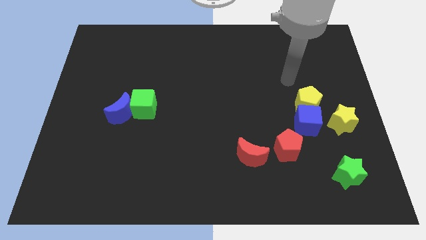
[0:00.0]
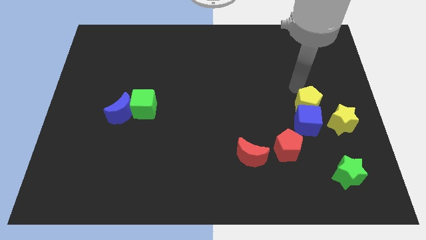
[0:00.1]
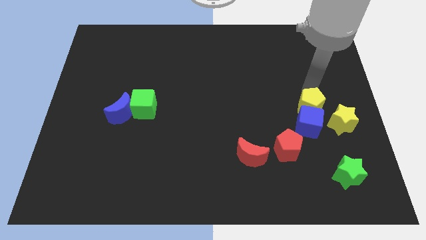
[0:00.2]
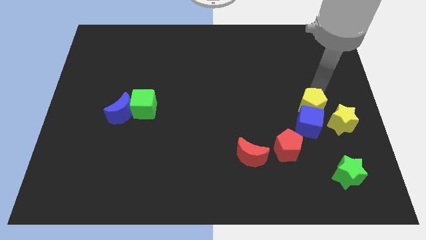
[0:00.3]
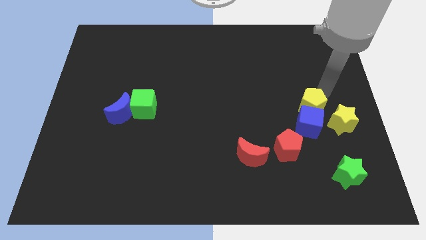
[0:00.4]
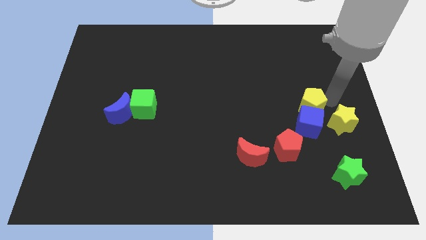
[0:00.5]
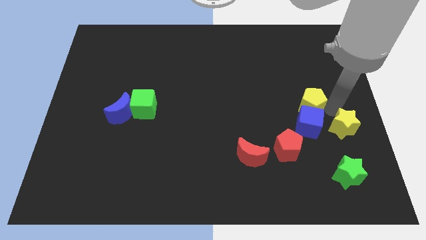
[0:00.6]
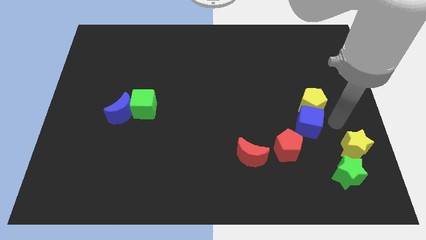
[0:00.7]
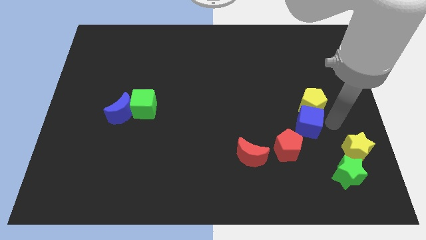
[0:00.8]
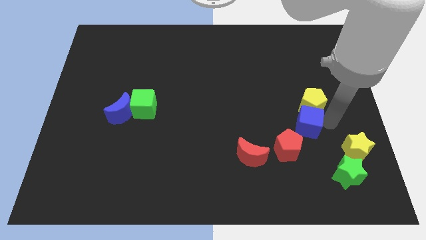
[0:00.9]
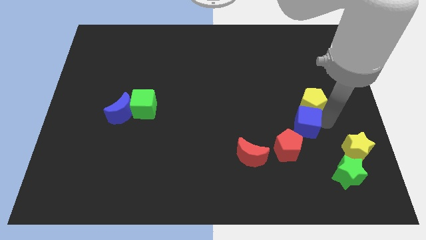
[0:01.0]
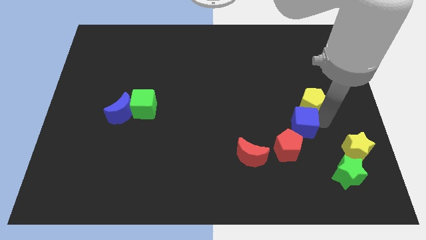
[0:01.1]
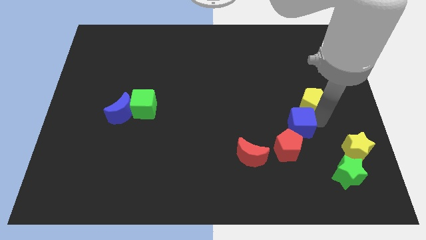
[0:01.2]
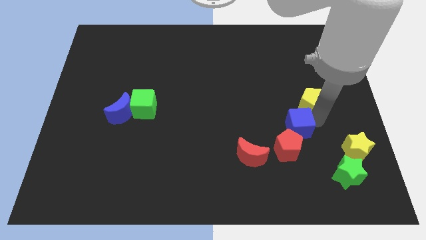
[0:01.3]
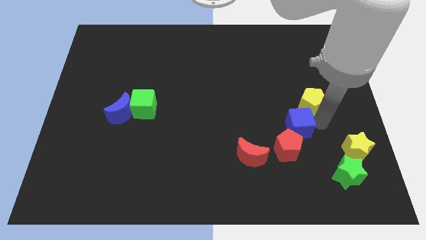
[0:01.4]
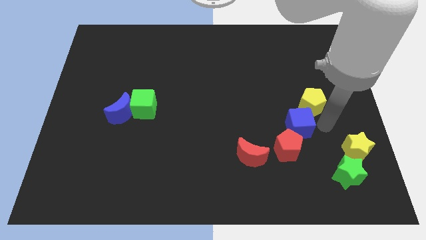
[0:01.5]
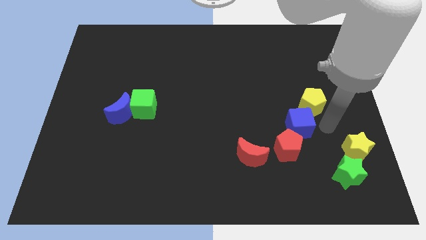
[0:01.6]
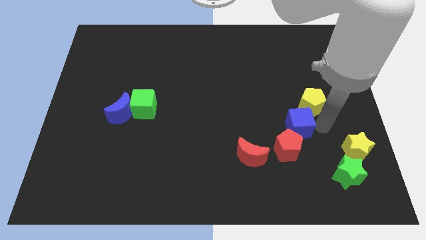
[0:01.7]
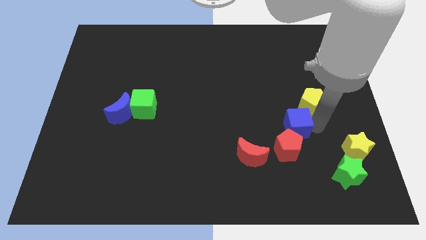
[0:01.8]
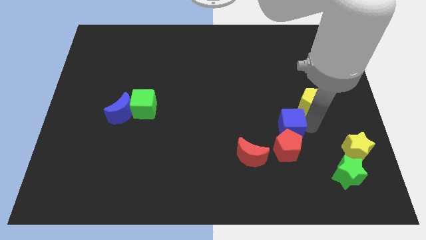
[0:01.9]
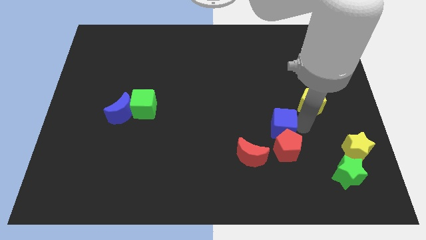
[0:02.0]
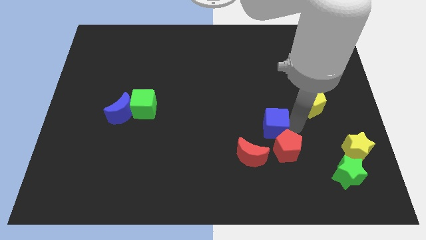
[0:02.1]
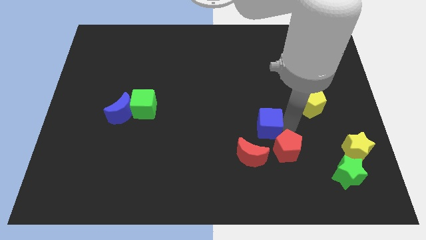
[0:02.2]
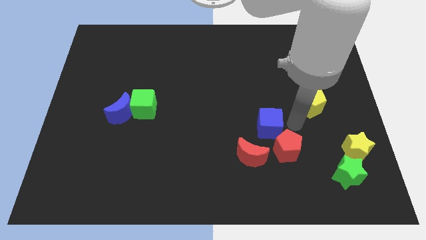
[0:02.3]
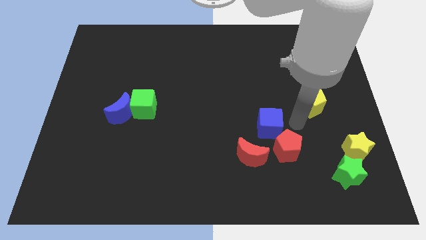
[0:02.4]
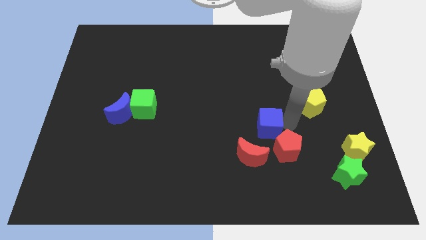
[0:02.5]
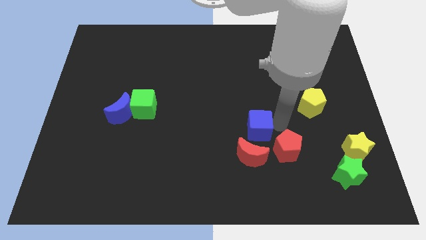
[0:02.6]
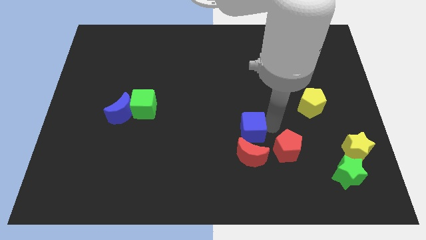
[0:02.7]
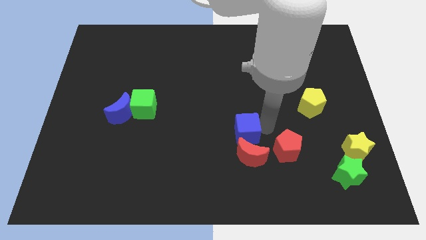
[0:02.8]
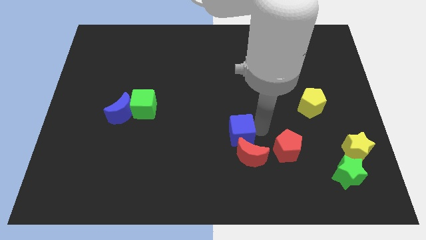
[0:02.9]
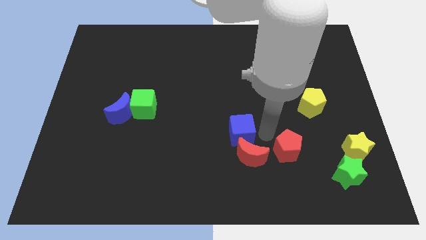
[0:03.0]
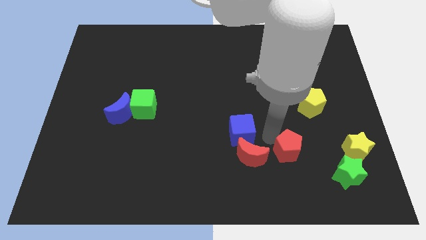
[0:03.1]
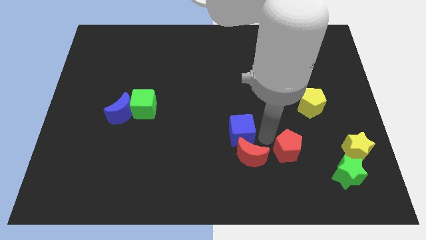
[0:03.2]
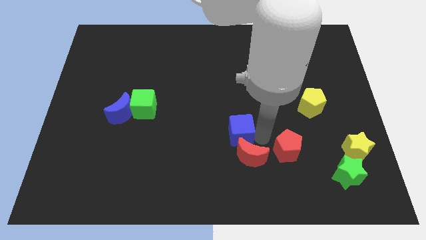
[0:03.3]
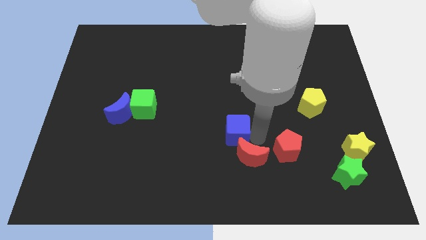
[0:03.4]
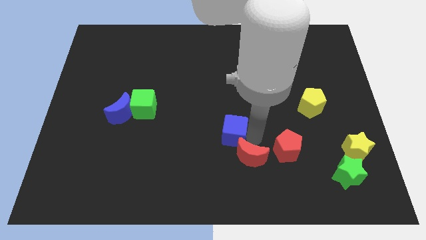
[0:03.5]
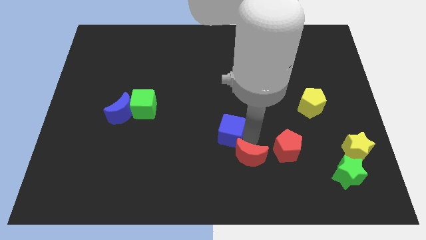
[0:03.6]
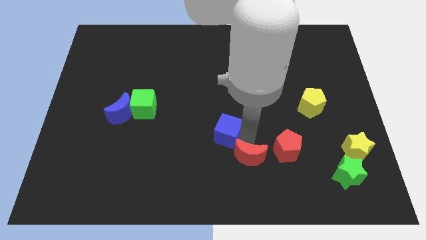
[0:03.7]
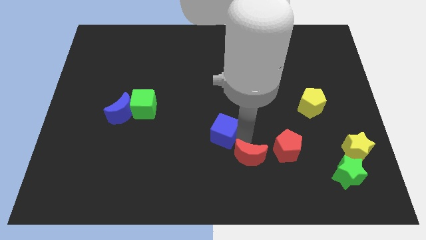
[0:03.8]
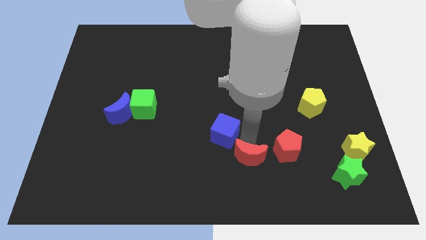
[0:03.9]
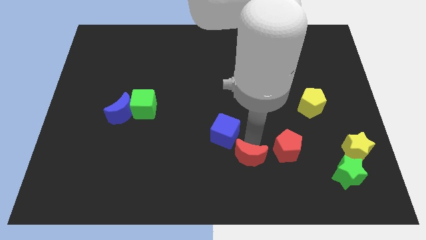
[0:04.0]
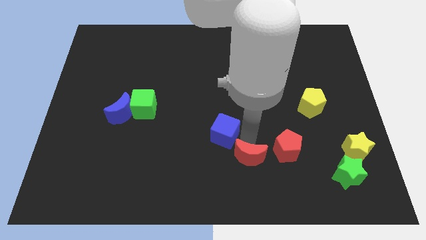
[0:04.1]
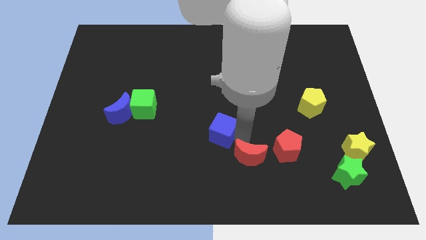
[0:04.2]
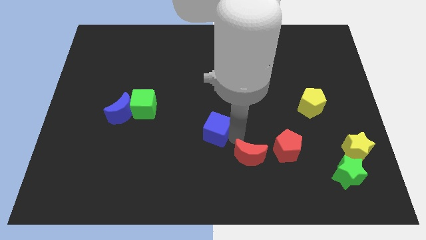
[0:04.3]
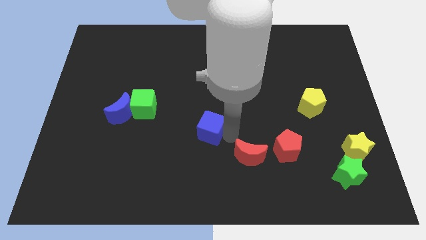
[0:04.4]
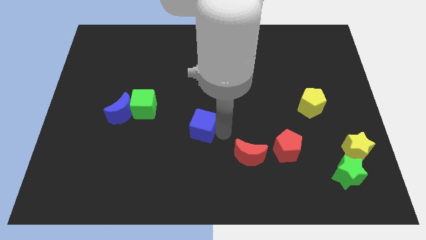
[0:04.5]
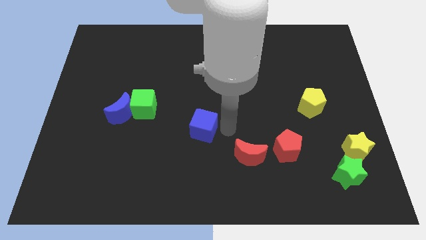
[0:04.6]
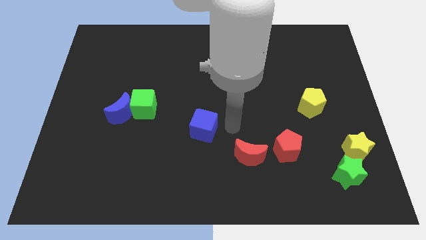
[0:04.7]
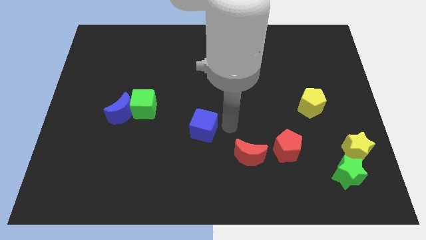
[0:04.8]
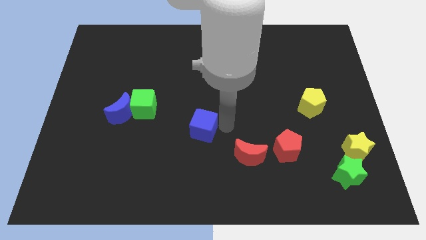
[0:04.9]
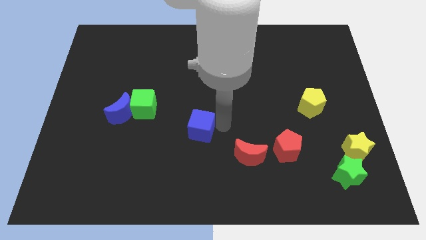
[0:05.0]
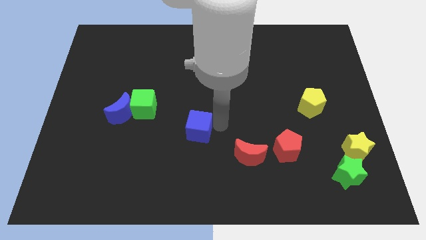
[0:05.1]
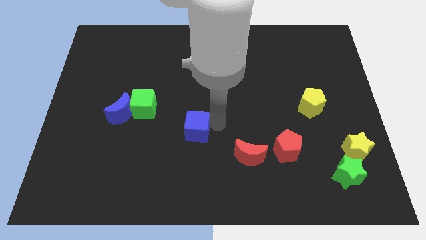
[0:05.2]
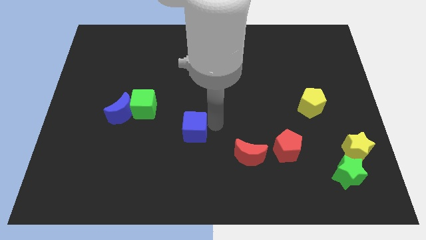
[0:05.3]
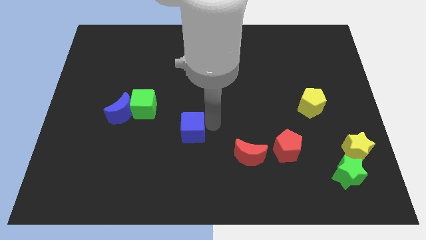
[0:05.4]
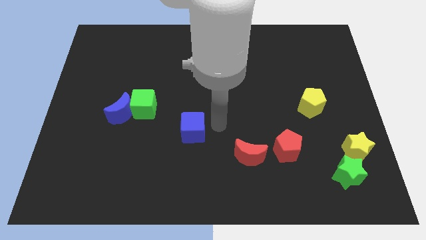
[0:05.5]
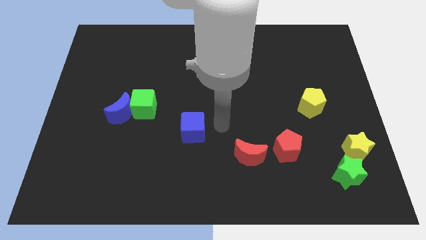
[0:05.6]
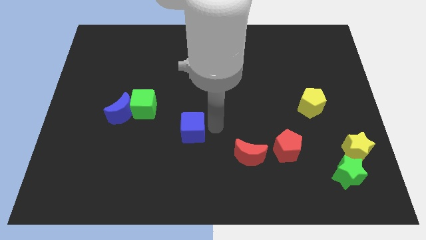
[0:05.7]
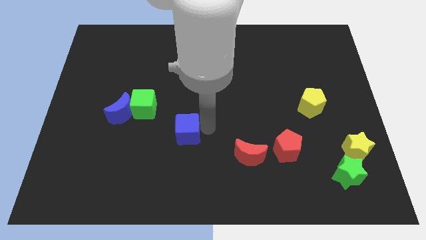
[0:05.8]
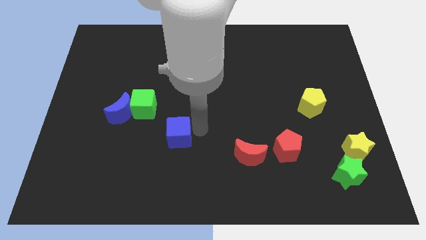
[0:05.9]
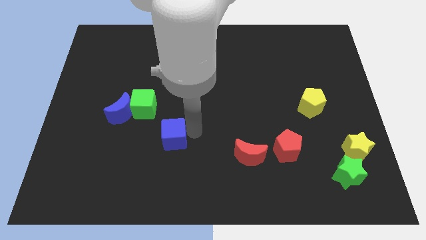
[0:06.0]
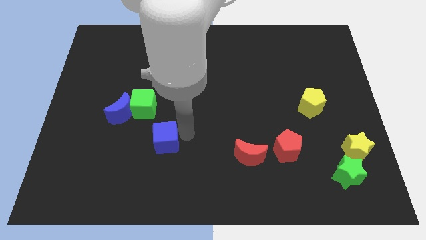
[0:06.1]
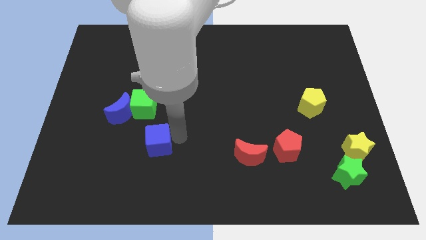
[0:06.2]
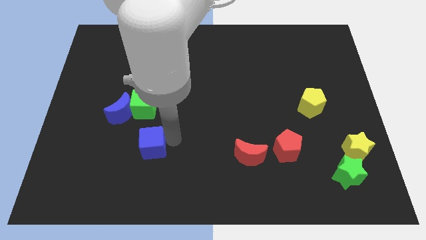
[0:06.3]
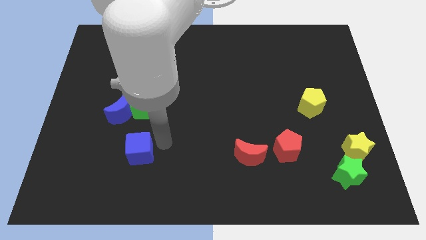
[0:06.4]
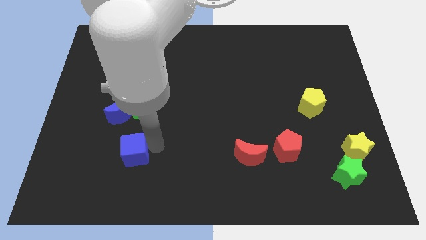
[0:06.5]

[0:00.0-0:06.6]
put the blue cube below the blue moon

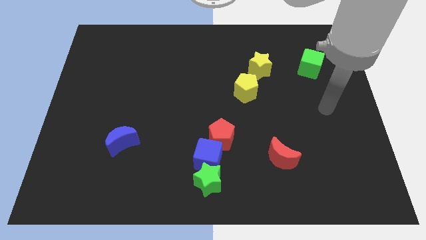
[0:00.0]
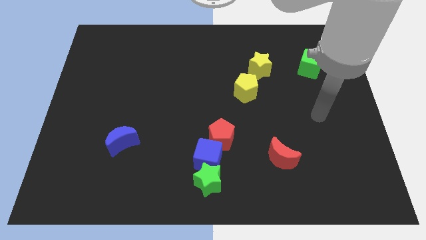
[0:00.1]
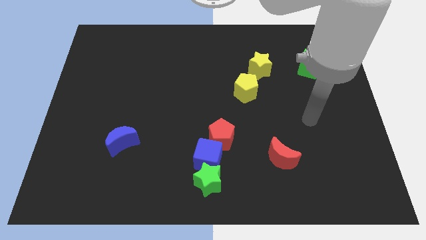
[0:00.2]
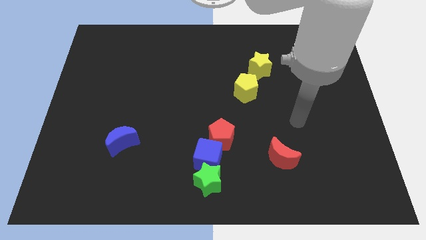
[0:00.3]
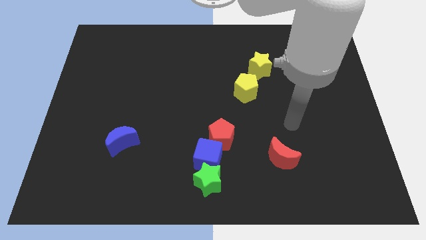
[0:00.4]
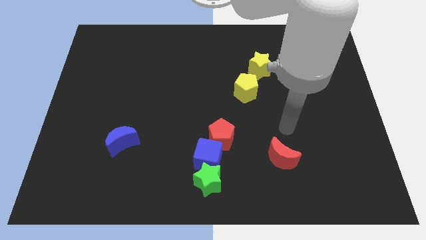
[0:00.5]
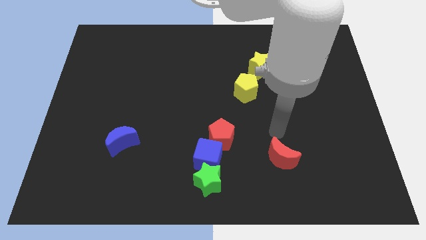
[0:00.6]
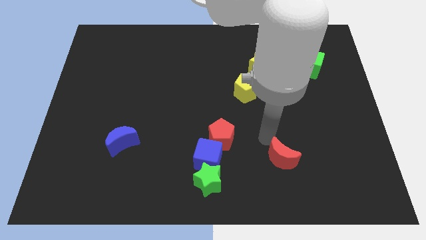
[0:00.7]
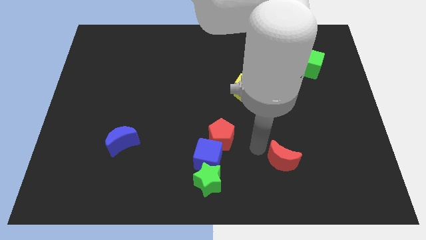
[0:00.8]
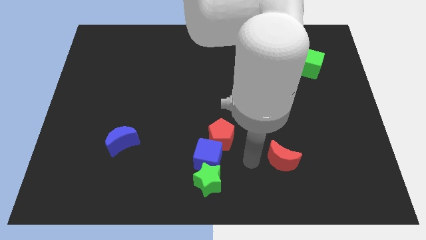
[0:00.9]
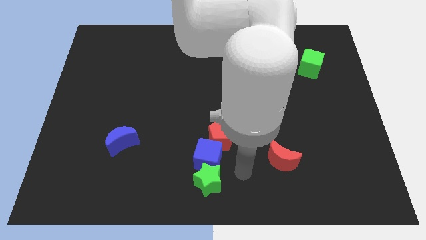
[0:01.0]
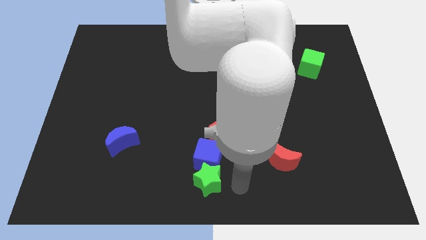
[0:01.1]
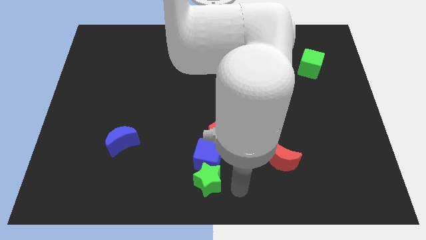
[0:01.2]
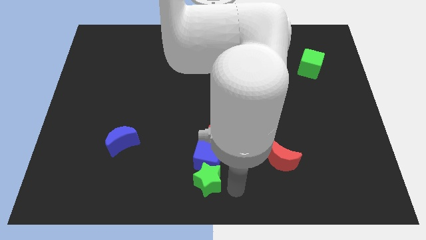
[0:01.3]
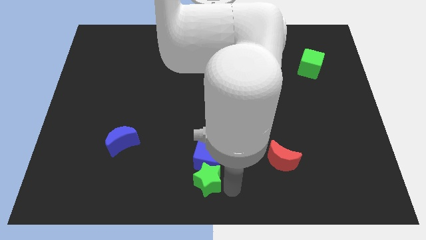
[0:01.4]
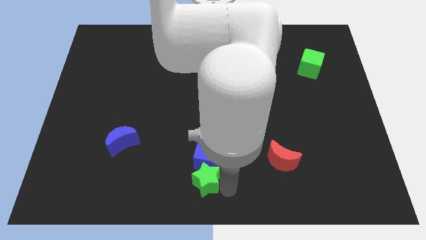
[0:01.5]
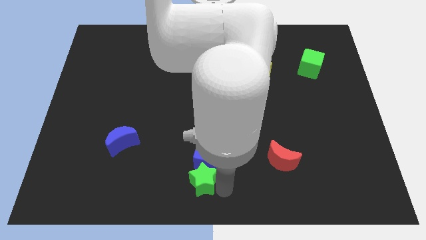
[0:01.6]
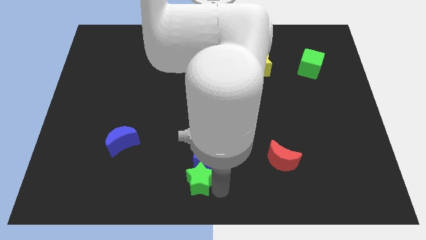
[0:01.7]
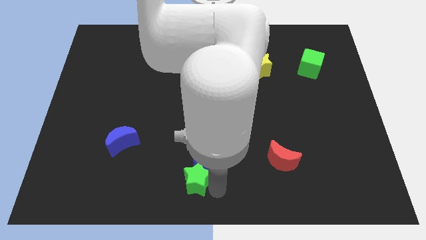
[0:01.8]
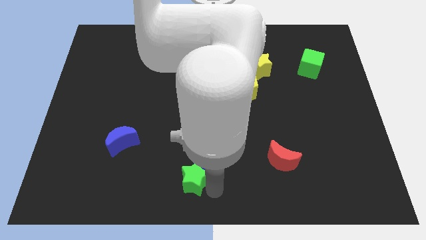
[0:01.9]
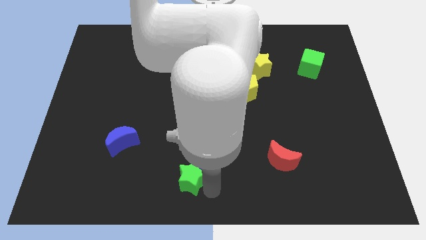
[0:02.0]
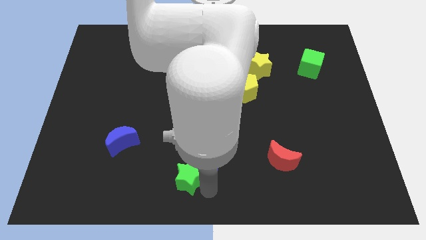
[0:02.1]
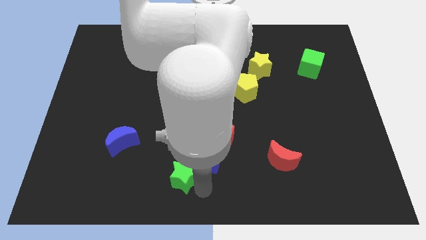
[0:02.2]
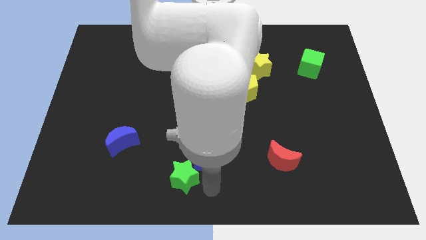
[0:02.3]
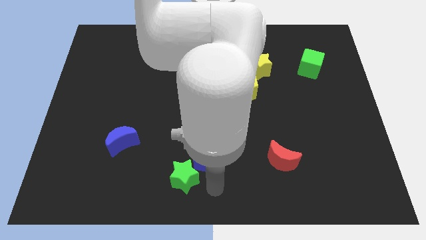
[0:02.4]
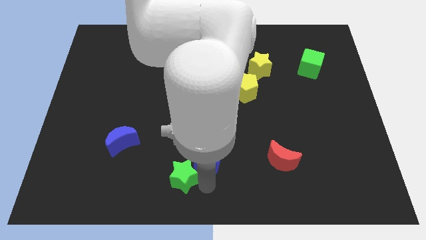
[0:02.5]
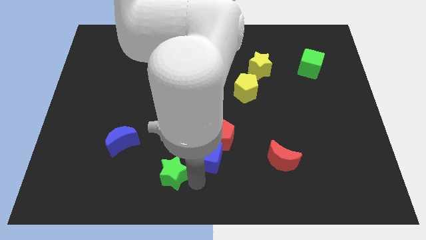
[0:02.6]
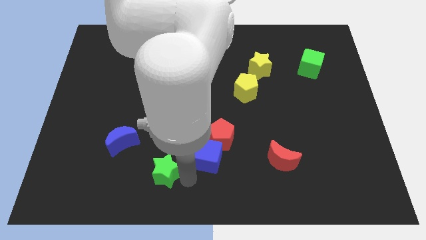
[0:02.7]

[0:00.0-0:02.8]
move the green star to the bottom right side of the blue moon
